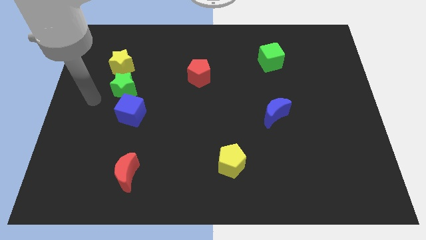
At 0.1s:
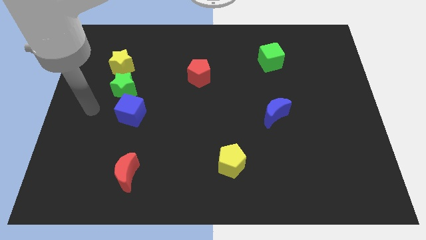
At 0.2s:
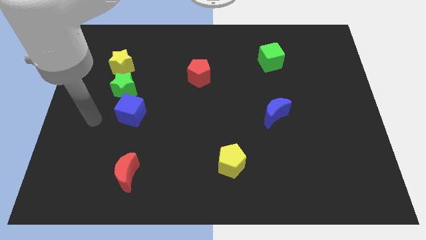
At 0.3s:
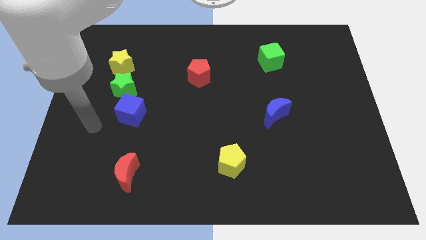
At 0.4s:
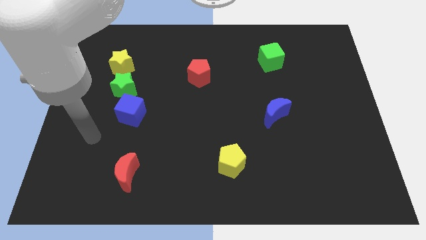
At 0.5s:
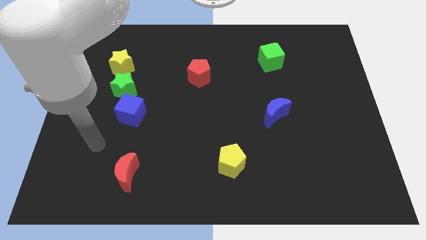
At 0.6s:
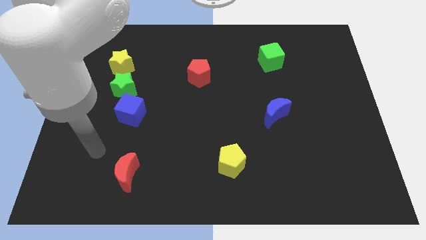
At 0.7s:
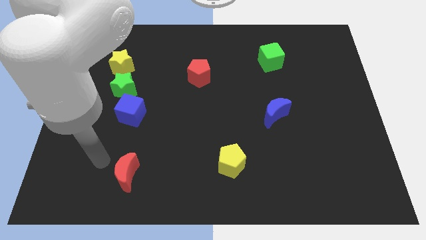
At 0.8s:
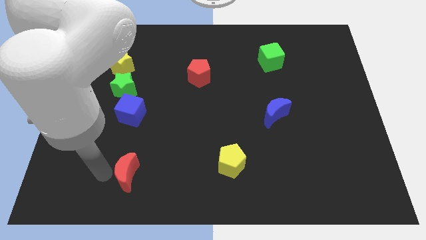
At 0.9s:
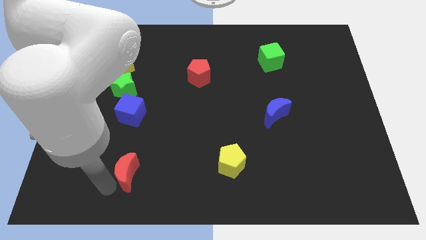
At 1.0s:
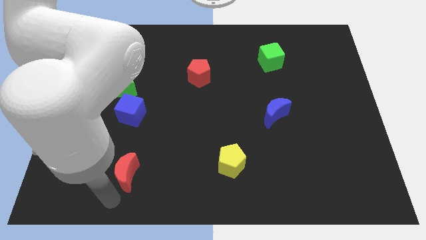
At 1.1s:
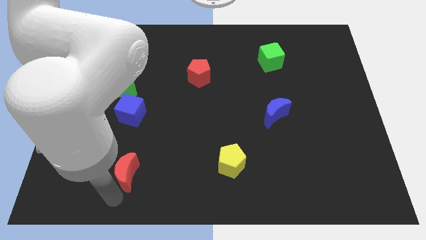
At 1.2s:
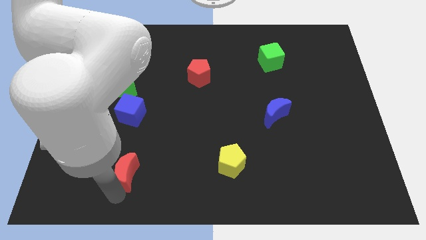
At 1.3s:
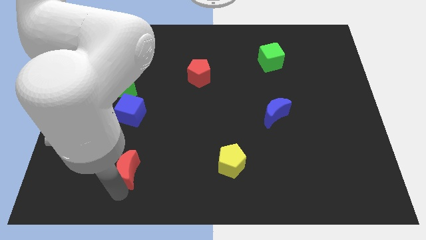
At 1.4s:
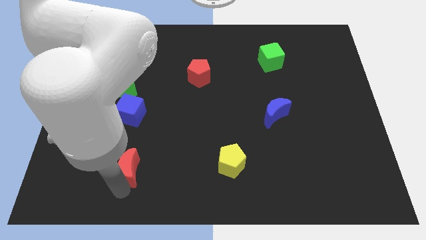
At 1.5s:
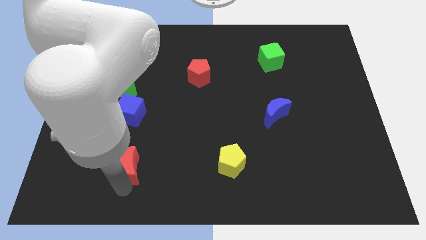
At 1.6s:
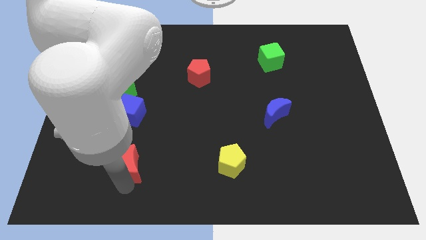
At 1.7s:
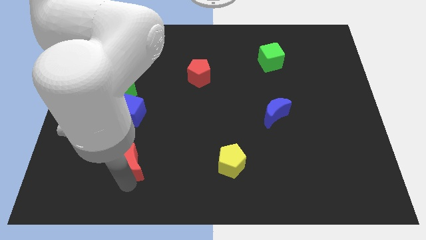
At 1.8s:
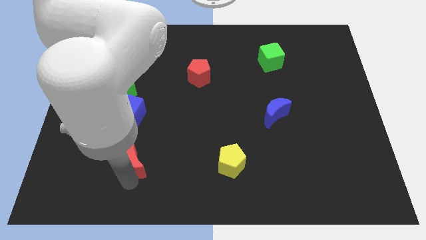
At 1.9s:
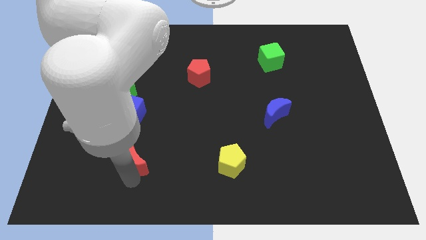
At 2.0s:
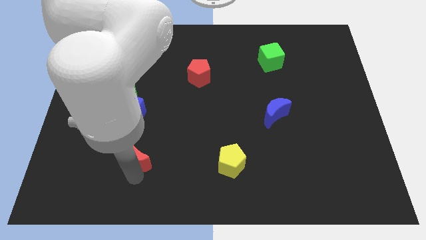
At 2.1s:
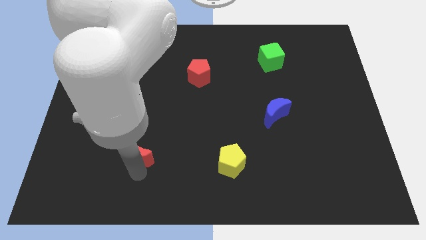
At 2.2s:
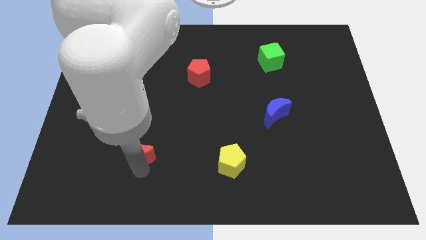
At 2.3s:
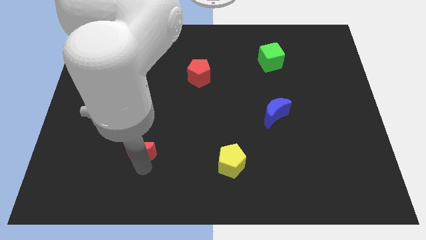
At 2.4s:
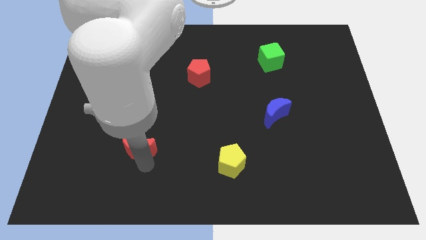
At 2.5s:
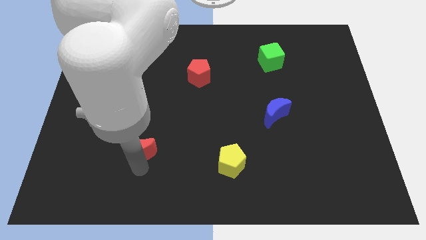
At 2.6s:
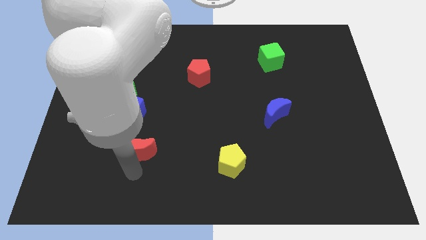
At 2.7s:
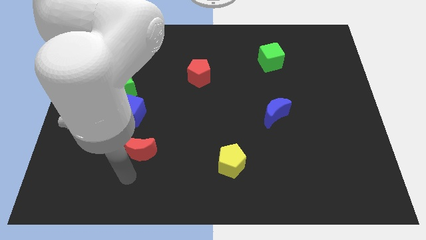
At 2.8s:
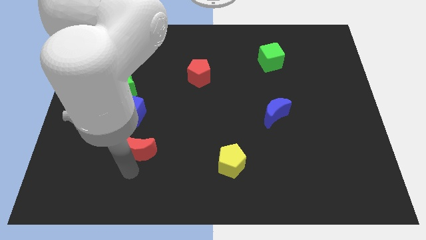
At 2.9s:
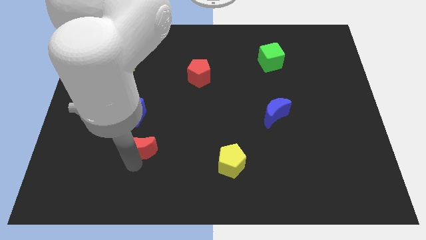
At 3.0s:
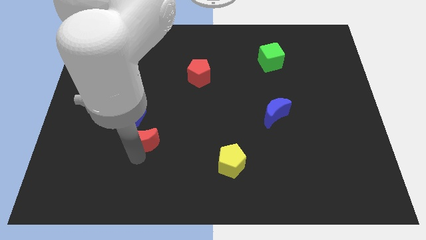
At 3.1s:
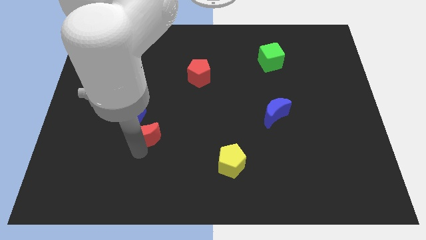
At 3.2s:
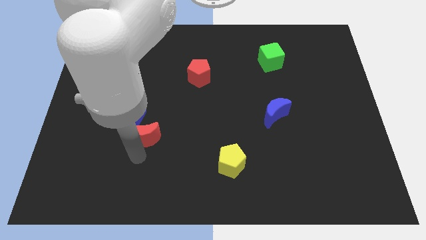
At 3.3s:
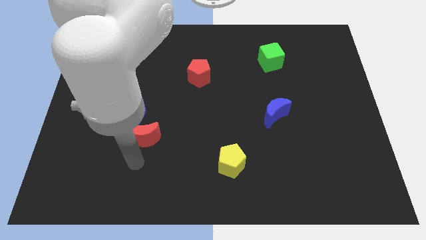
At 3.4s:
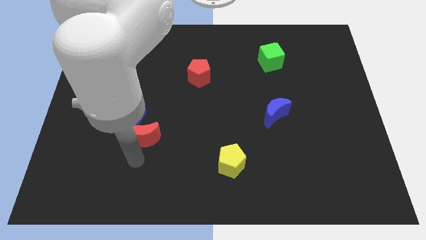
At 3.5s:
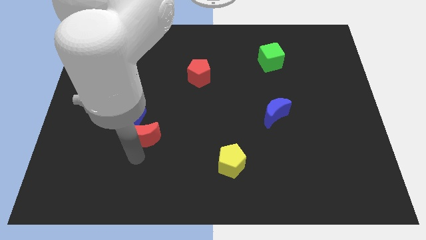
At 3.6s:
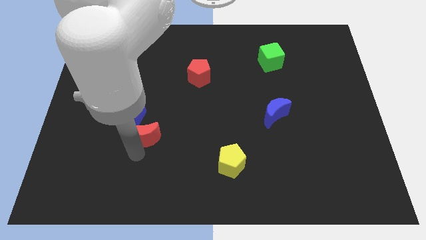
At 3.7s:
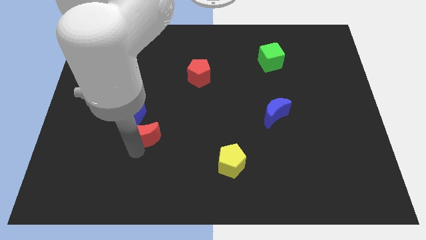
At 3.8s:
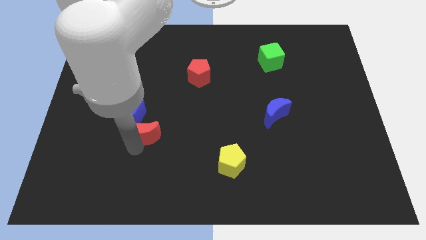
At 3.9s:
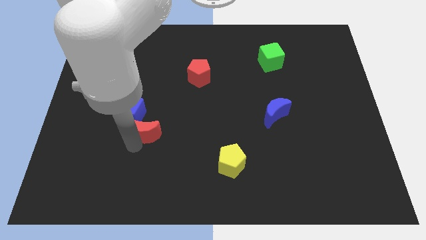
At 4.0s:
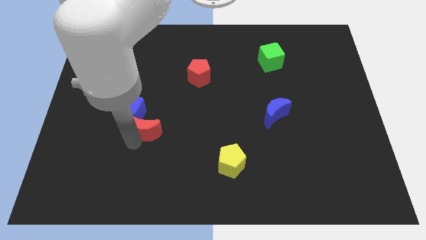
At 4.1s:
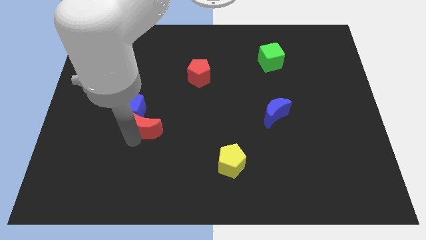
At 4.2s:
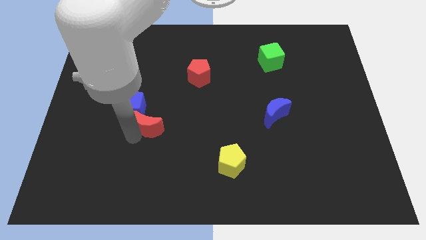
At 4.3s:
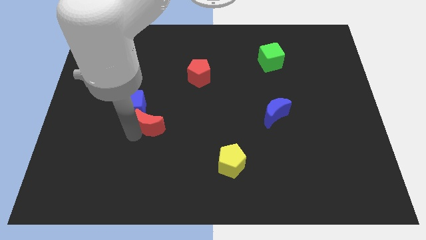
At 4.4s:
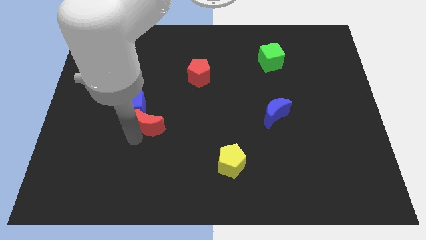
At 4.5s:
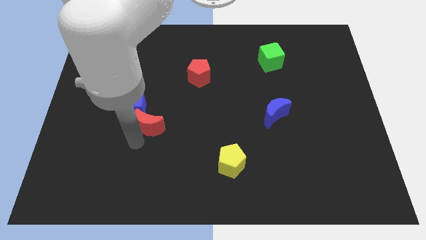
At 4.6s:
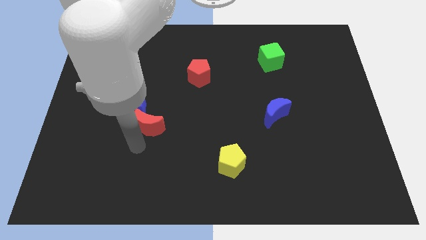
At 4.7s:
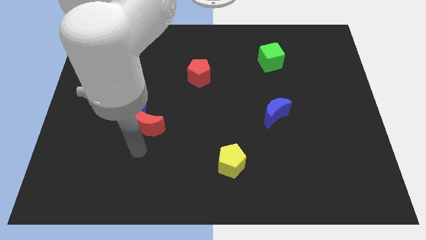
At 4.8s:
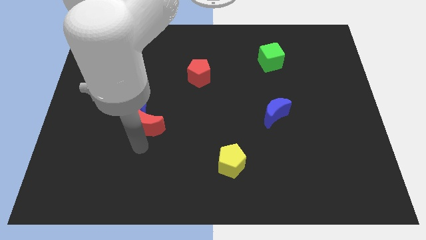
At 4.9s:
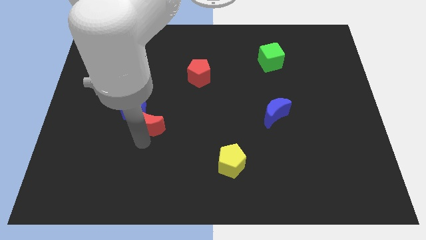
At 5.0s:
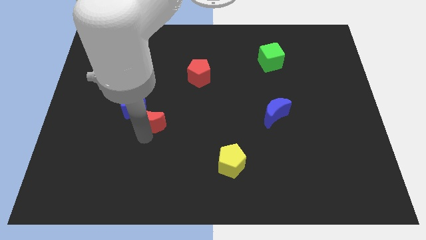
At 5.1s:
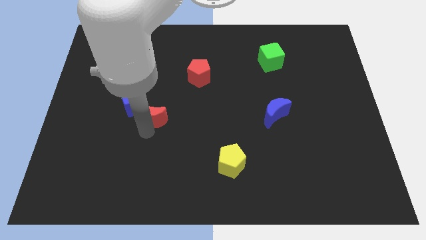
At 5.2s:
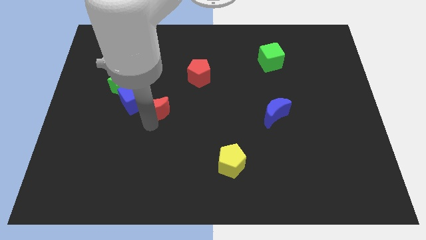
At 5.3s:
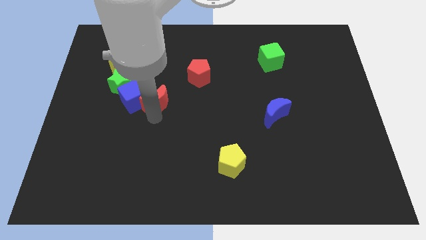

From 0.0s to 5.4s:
slide the red moon diagonally up and to the right of the blue cube

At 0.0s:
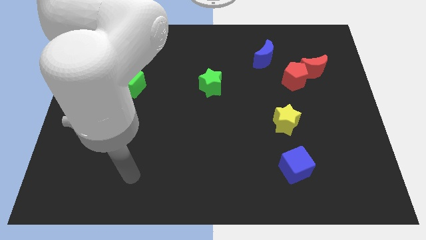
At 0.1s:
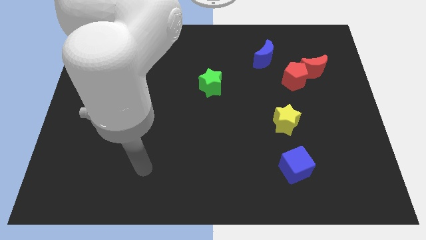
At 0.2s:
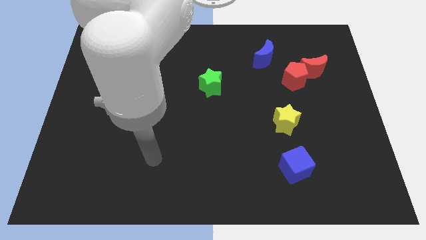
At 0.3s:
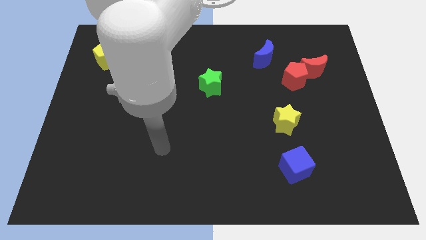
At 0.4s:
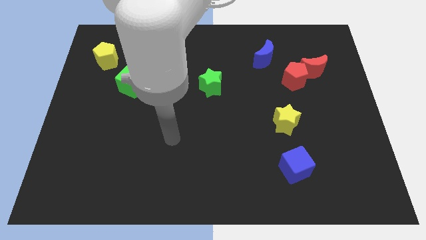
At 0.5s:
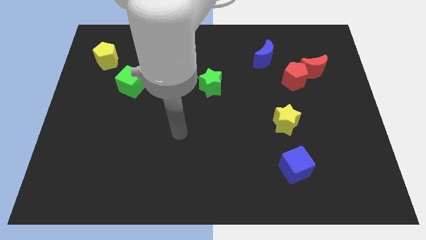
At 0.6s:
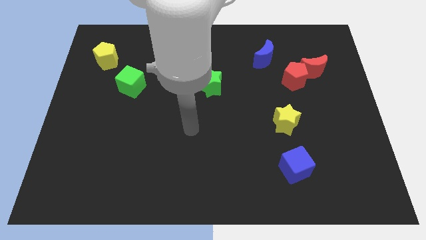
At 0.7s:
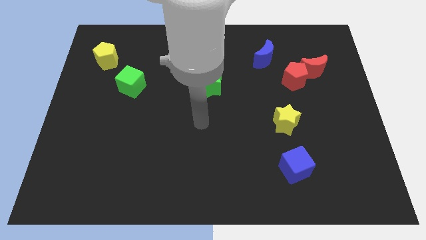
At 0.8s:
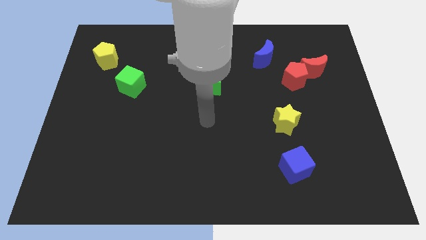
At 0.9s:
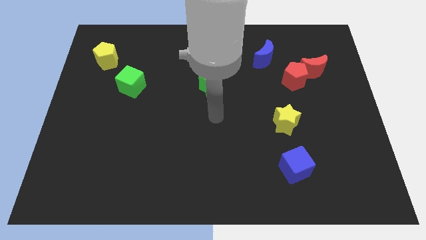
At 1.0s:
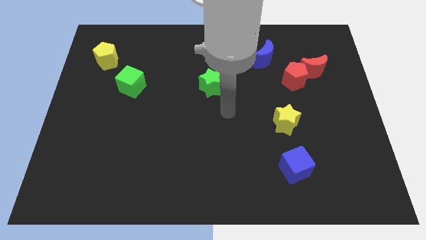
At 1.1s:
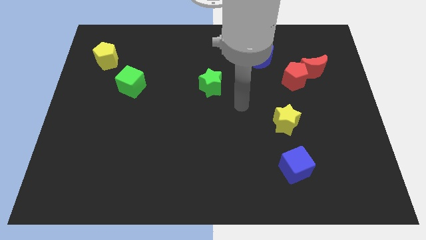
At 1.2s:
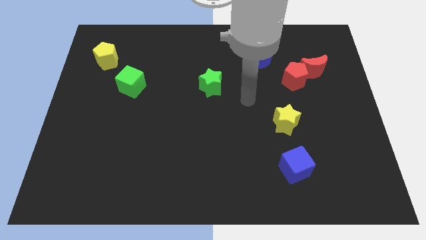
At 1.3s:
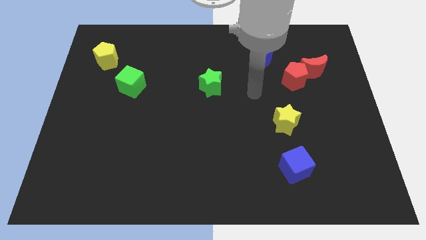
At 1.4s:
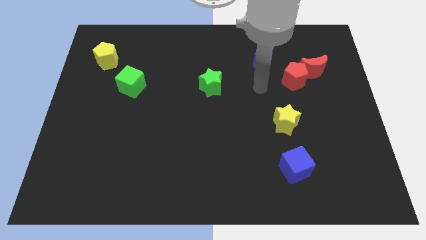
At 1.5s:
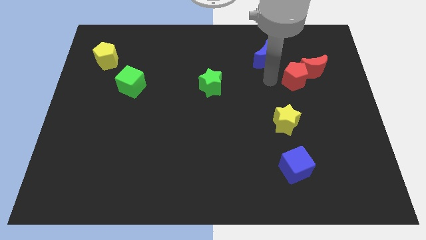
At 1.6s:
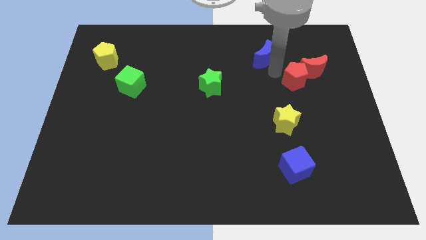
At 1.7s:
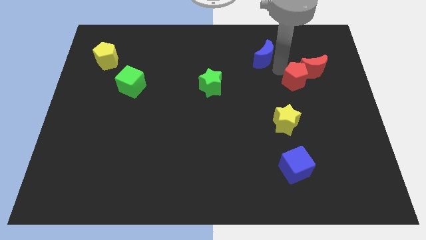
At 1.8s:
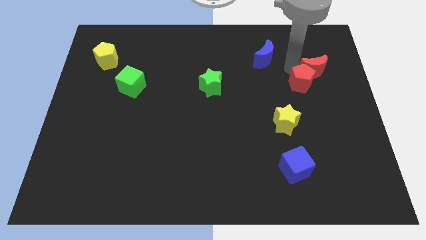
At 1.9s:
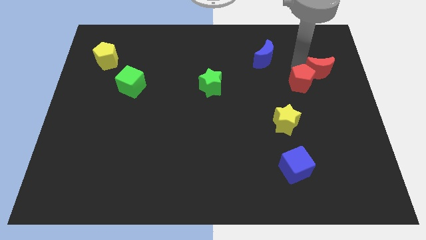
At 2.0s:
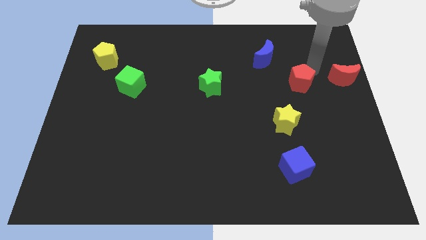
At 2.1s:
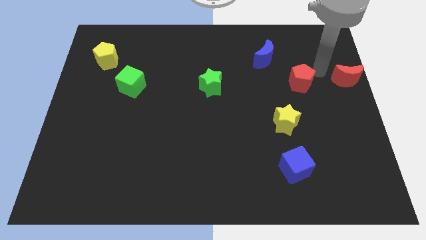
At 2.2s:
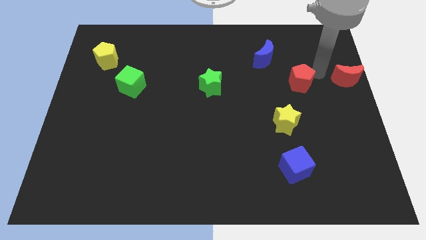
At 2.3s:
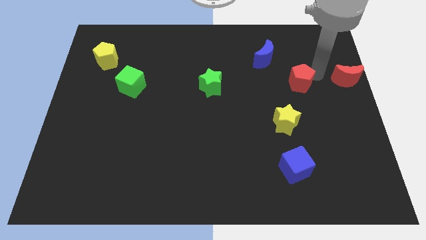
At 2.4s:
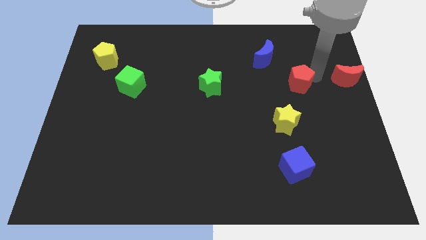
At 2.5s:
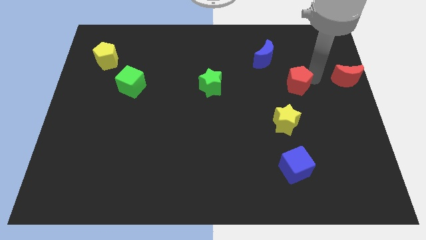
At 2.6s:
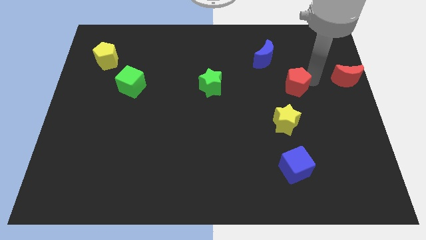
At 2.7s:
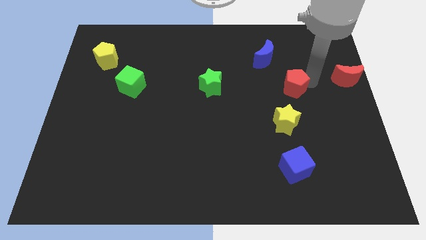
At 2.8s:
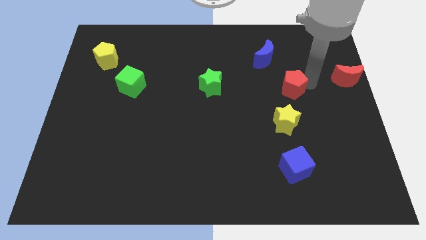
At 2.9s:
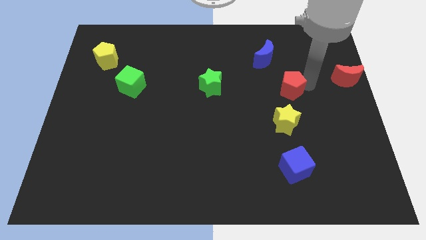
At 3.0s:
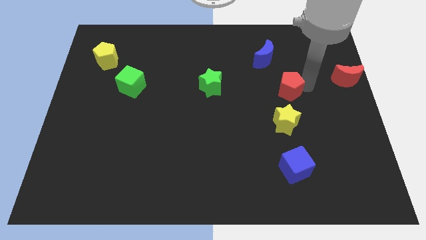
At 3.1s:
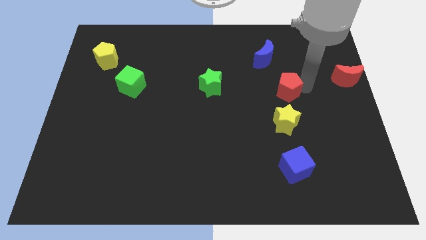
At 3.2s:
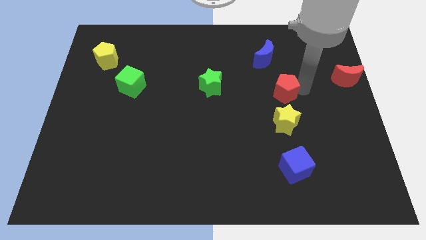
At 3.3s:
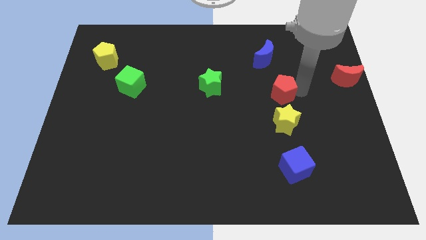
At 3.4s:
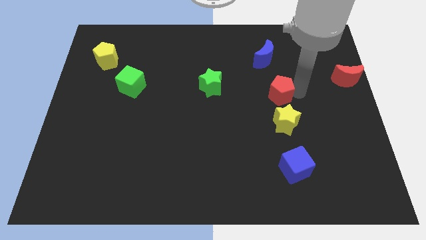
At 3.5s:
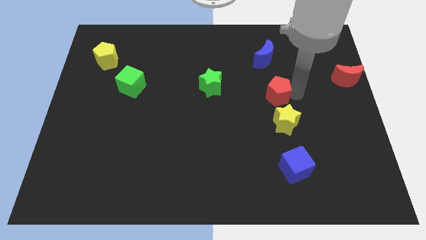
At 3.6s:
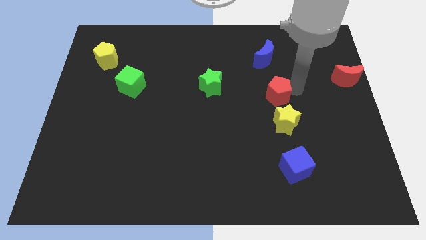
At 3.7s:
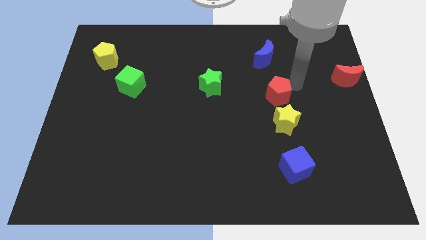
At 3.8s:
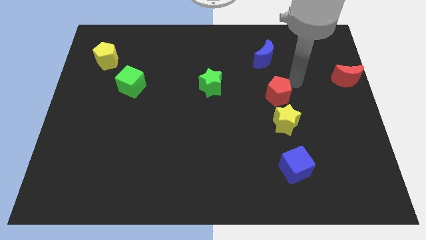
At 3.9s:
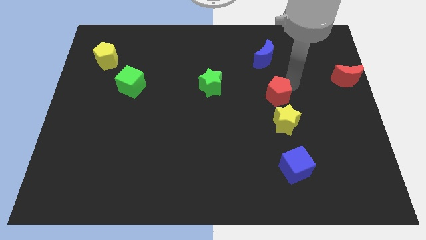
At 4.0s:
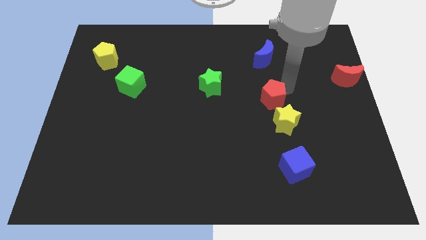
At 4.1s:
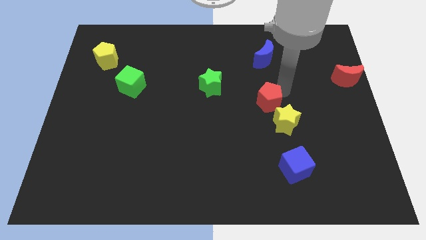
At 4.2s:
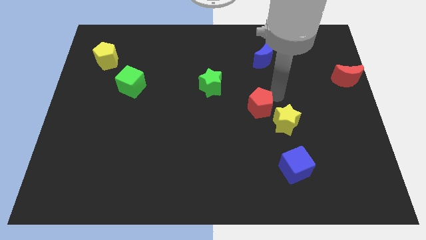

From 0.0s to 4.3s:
move the red pentagon to the left side of the yellow star
